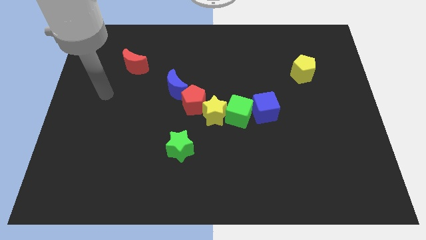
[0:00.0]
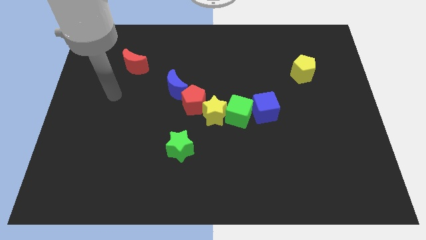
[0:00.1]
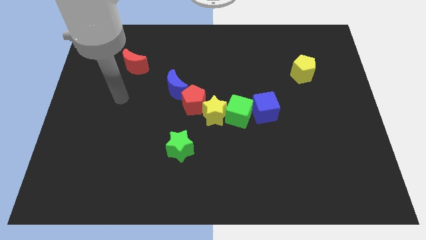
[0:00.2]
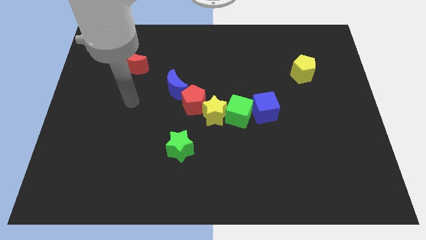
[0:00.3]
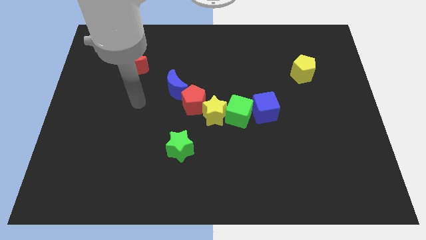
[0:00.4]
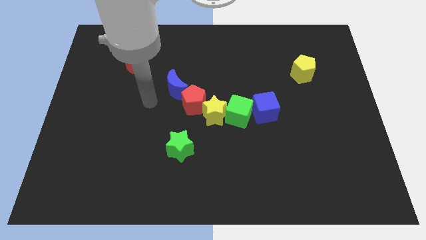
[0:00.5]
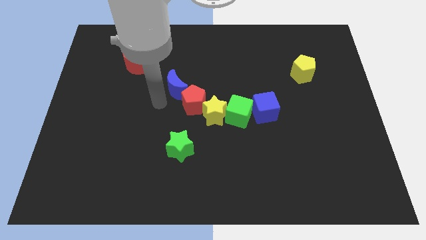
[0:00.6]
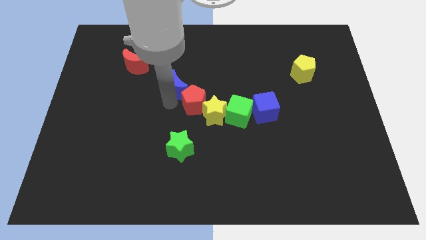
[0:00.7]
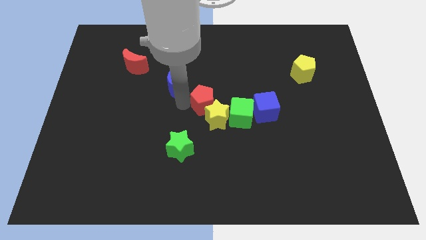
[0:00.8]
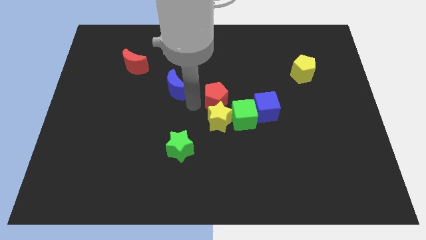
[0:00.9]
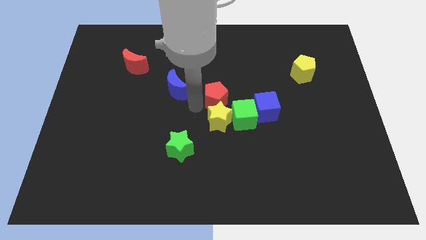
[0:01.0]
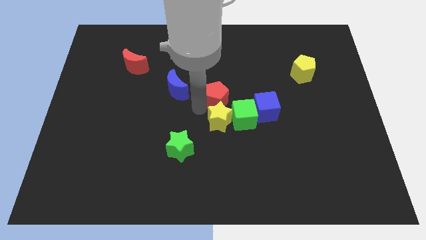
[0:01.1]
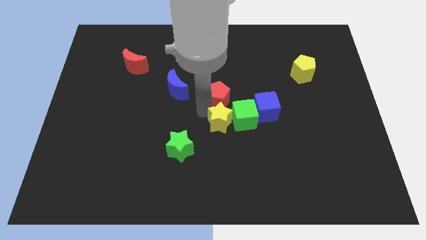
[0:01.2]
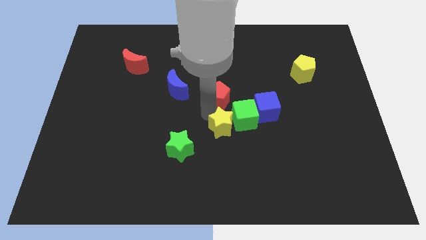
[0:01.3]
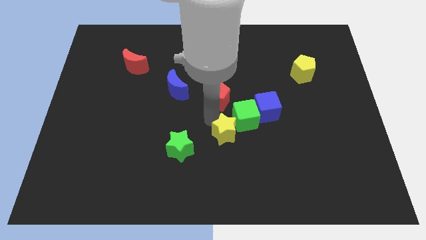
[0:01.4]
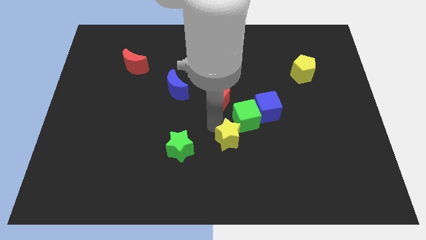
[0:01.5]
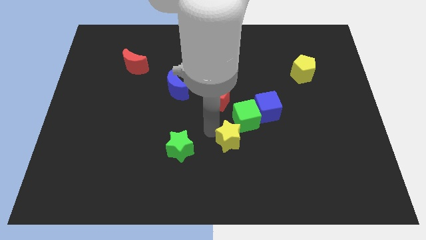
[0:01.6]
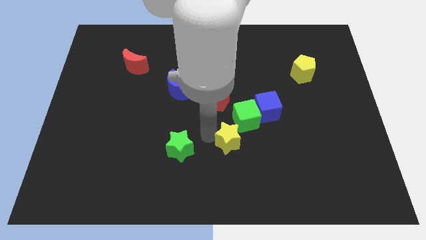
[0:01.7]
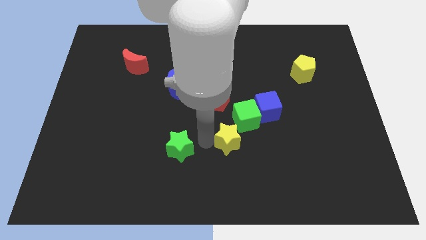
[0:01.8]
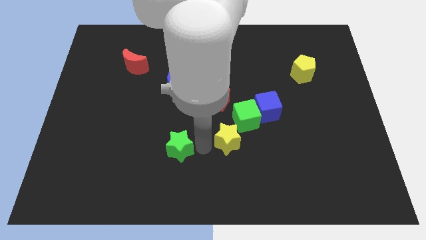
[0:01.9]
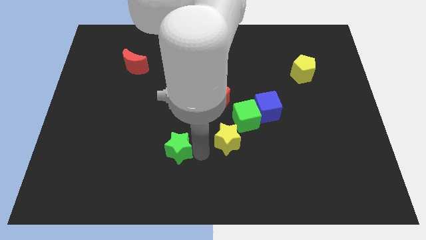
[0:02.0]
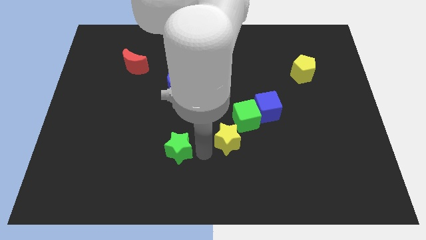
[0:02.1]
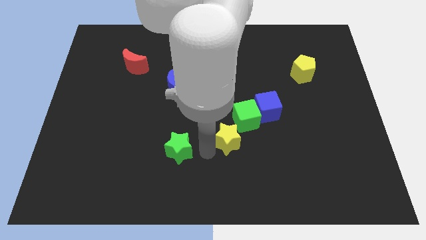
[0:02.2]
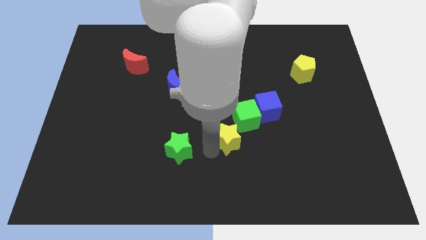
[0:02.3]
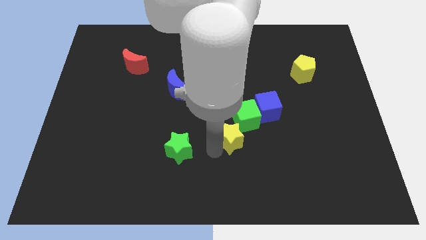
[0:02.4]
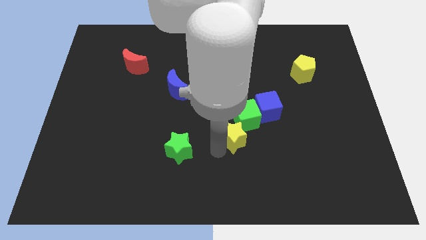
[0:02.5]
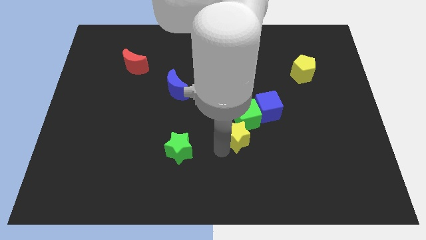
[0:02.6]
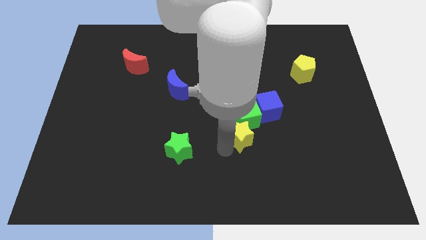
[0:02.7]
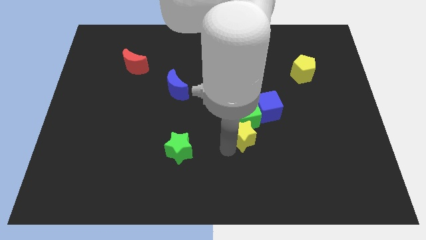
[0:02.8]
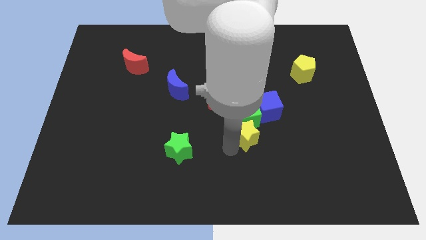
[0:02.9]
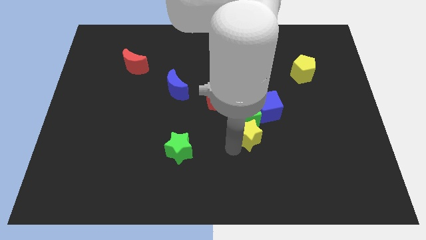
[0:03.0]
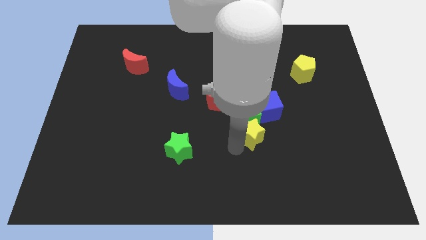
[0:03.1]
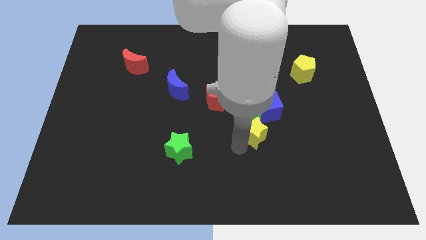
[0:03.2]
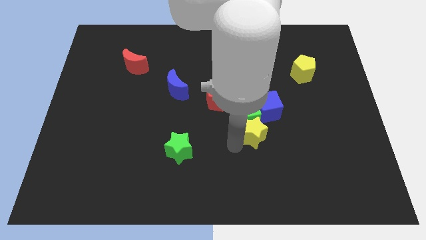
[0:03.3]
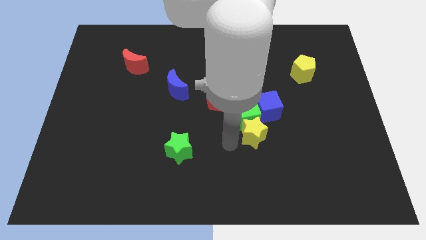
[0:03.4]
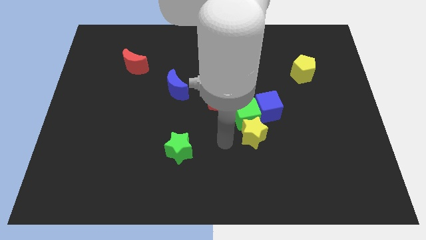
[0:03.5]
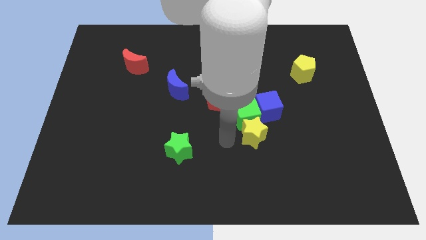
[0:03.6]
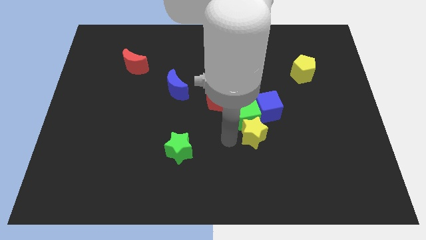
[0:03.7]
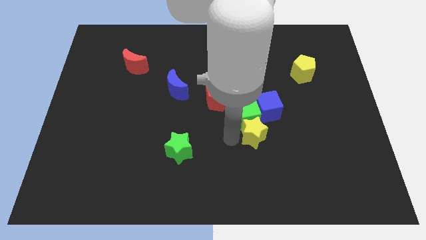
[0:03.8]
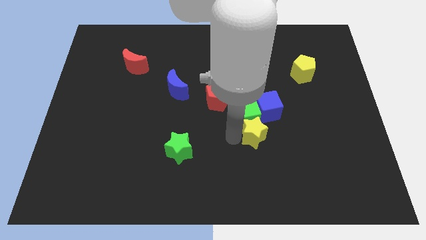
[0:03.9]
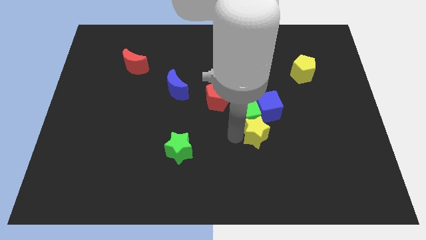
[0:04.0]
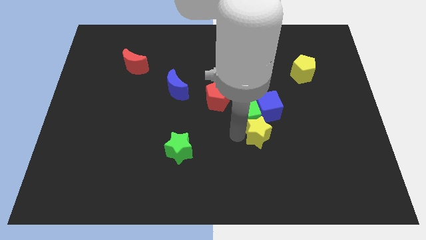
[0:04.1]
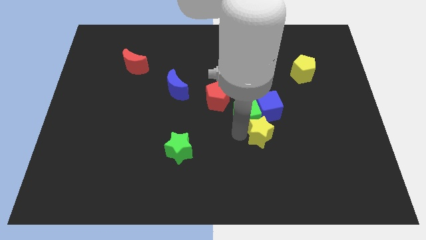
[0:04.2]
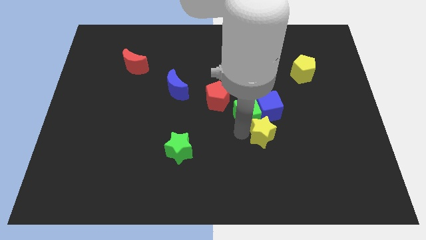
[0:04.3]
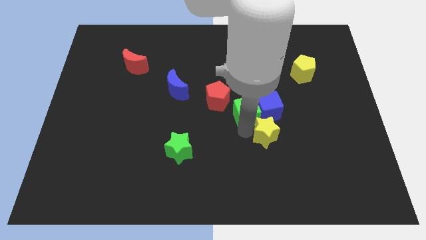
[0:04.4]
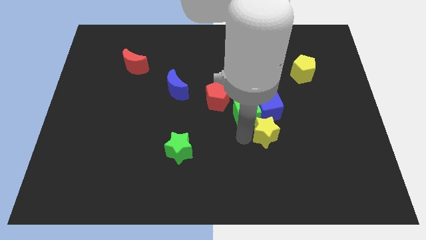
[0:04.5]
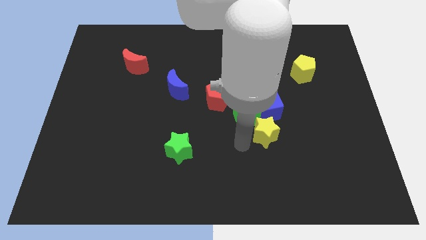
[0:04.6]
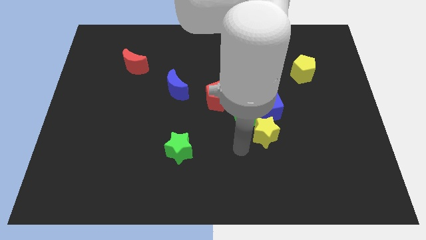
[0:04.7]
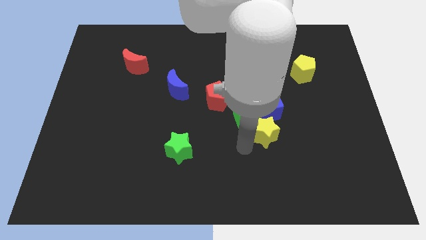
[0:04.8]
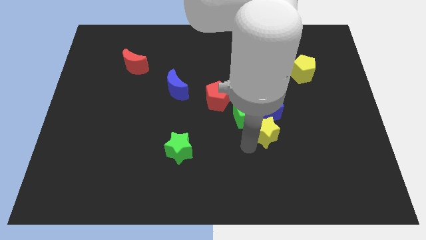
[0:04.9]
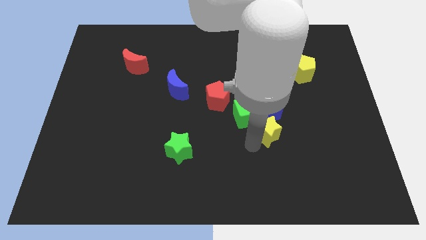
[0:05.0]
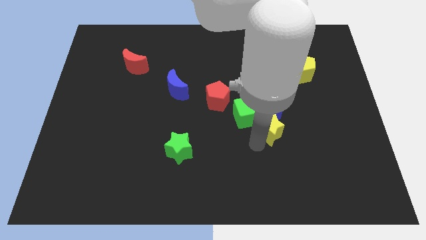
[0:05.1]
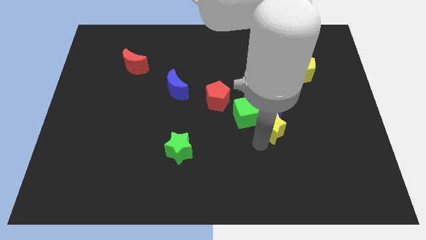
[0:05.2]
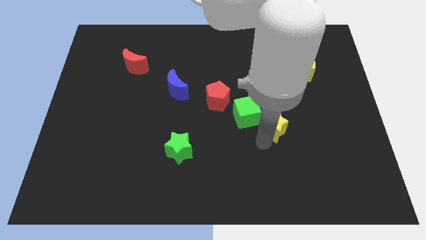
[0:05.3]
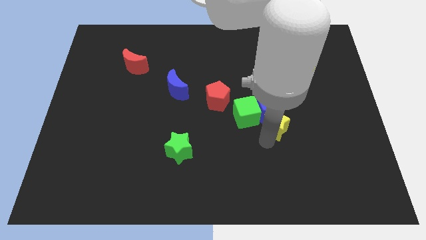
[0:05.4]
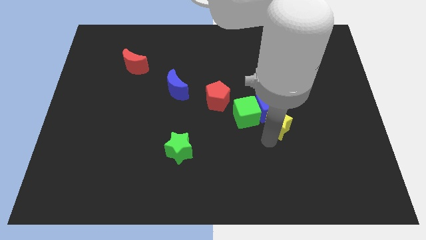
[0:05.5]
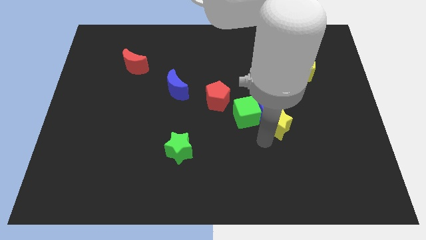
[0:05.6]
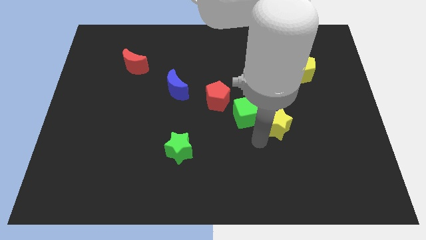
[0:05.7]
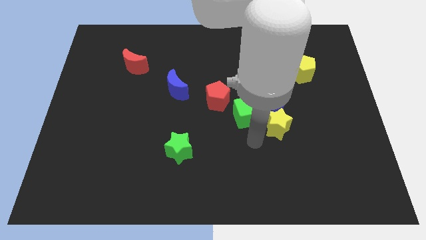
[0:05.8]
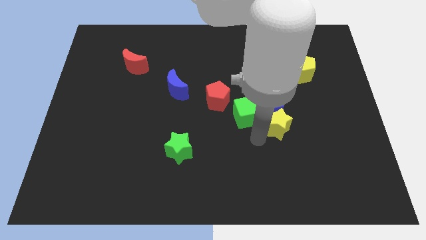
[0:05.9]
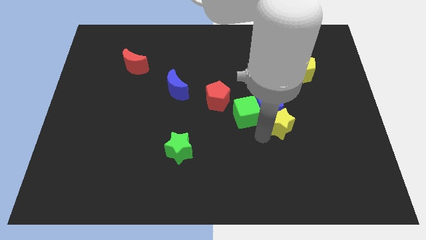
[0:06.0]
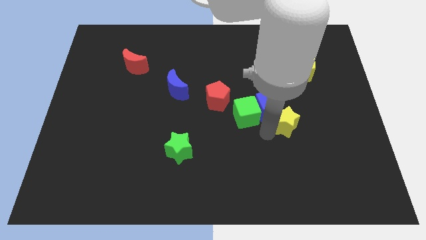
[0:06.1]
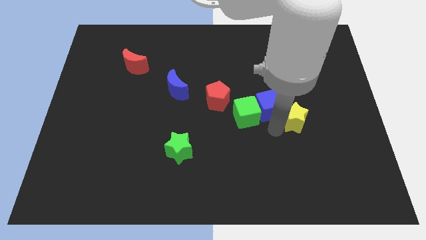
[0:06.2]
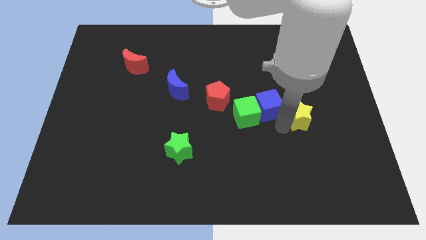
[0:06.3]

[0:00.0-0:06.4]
push the yellow star below the yellow pentagon

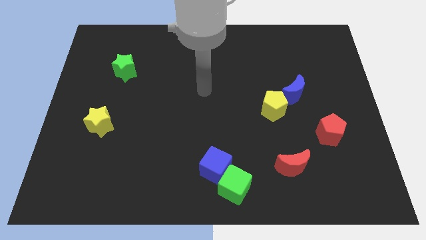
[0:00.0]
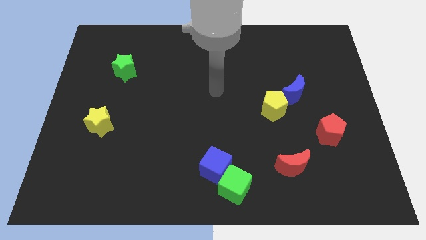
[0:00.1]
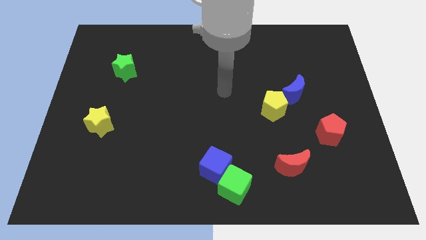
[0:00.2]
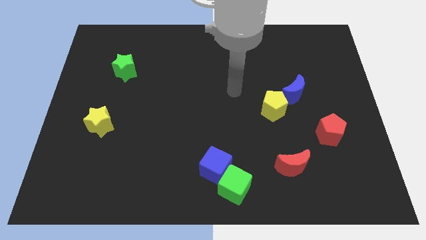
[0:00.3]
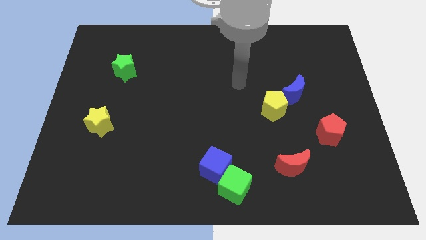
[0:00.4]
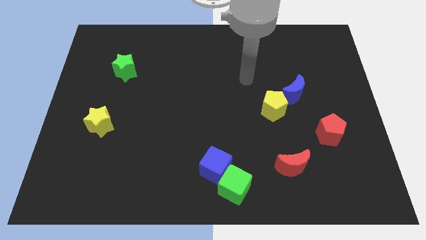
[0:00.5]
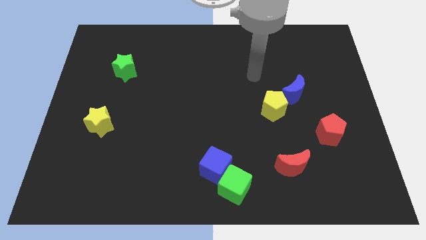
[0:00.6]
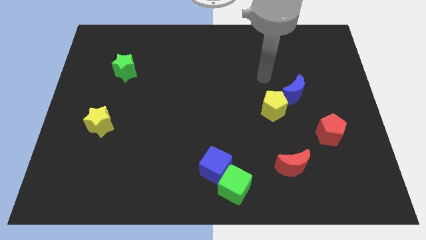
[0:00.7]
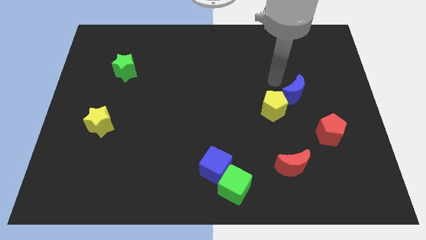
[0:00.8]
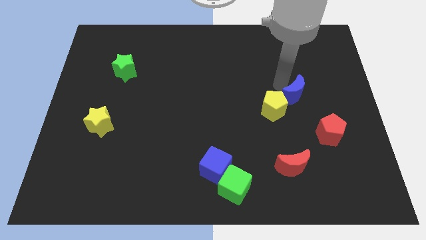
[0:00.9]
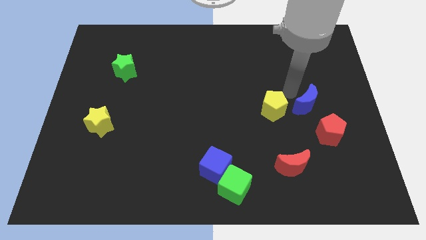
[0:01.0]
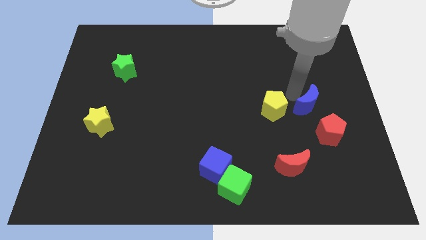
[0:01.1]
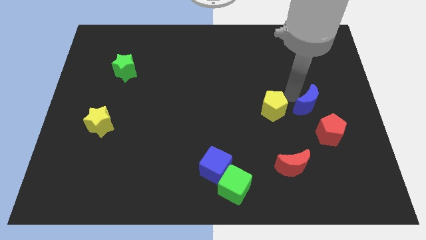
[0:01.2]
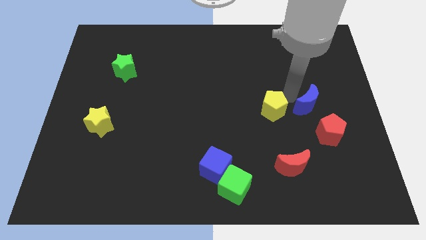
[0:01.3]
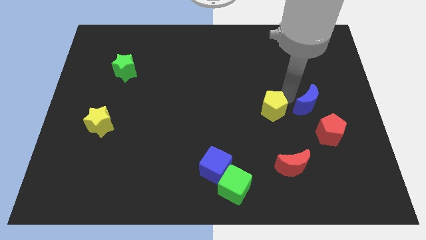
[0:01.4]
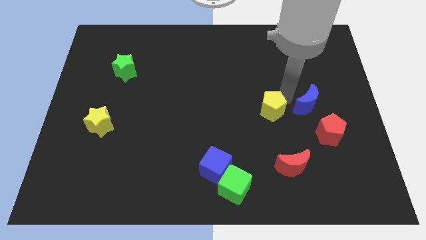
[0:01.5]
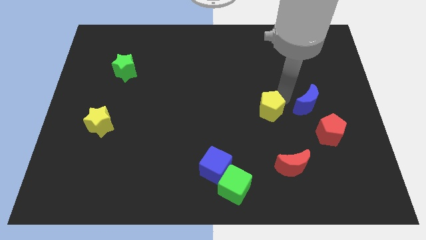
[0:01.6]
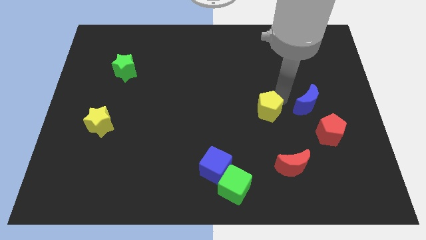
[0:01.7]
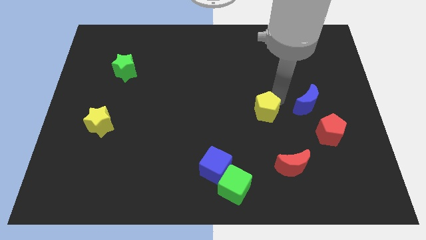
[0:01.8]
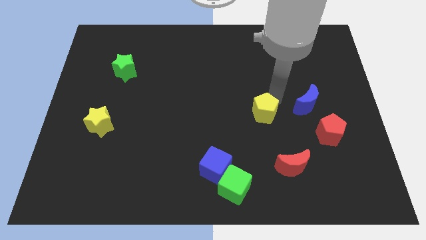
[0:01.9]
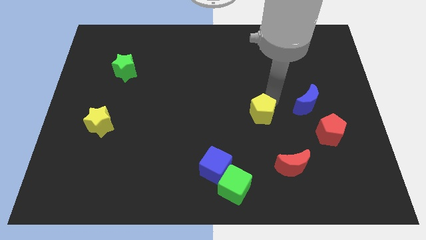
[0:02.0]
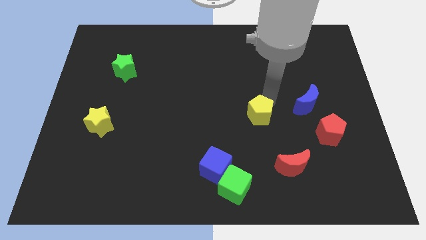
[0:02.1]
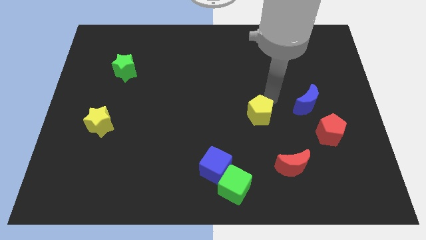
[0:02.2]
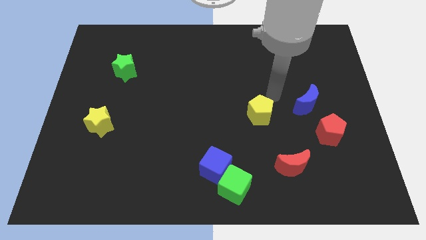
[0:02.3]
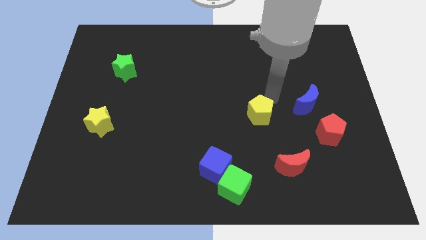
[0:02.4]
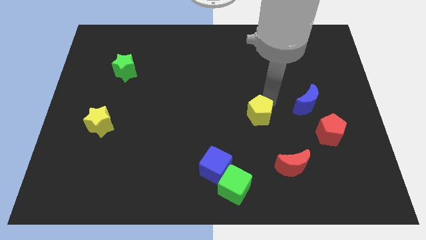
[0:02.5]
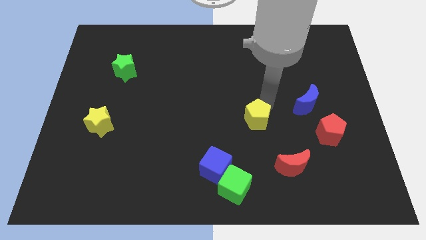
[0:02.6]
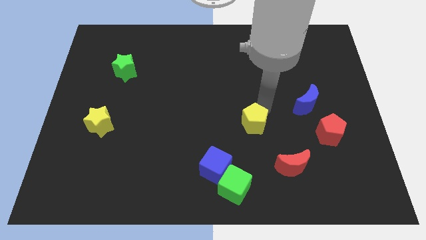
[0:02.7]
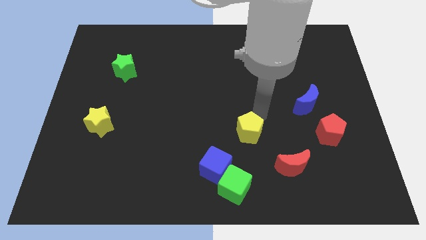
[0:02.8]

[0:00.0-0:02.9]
slide the yellow pentagon to the top of the green cube
